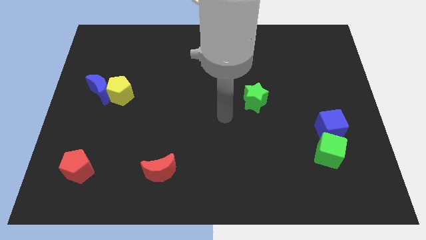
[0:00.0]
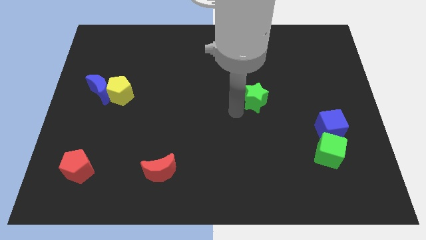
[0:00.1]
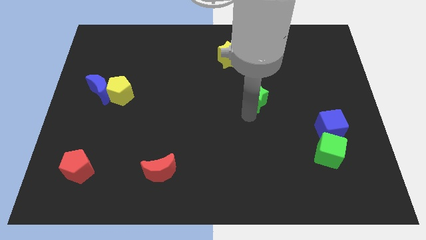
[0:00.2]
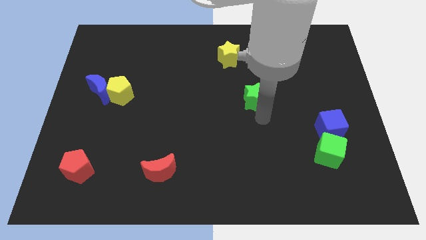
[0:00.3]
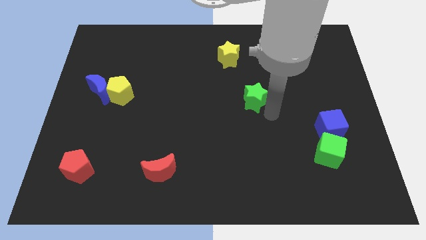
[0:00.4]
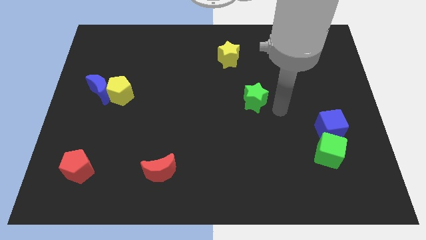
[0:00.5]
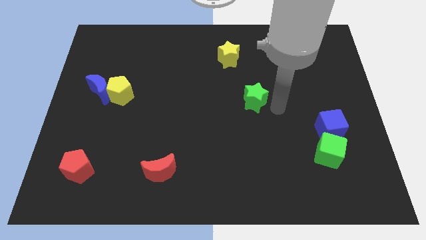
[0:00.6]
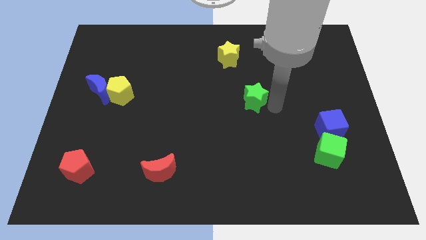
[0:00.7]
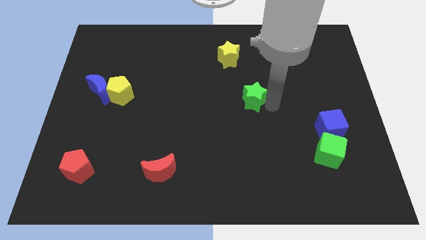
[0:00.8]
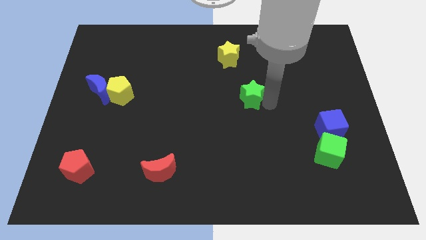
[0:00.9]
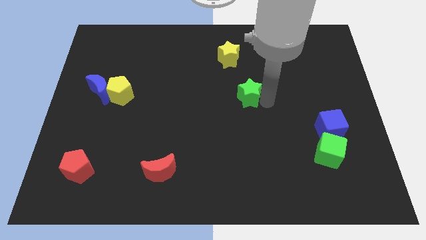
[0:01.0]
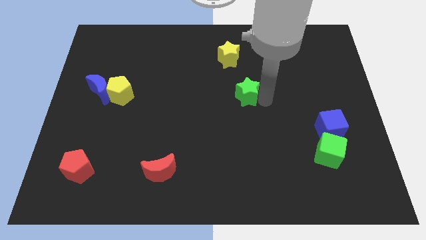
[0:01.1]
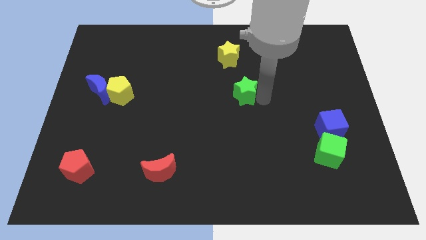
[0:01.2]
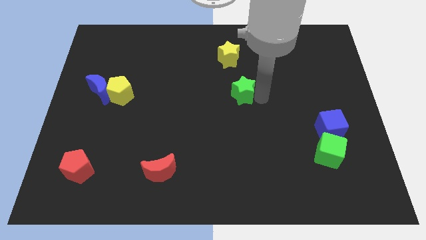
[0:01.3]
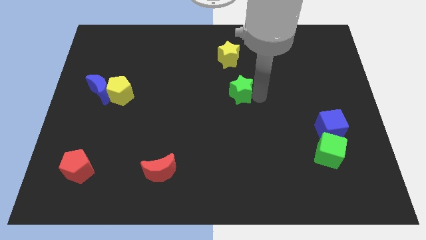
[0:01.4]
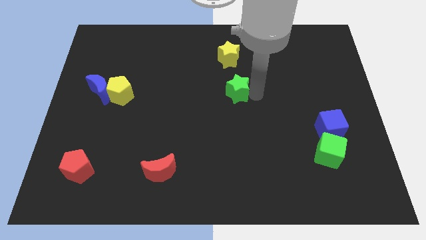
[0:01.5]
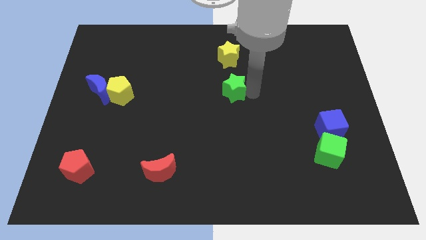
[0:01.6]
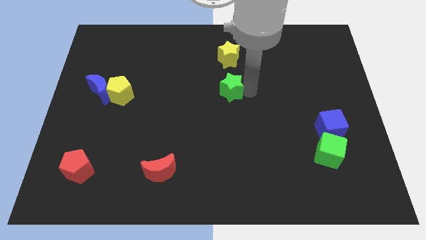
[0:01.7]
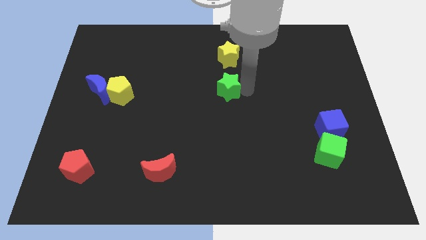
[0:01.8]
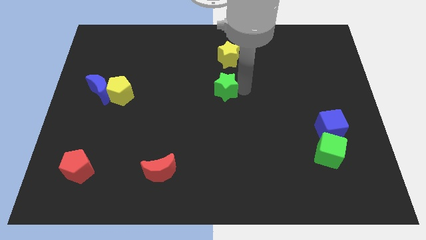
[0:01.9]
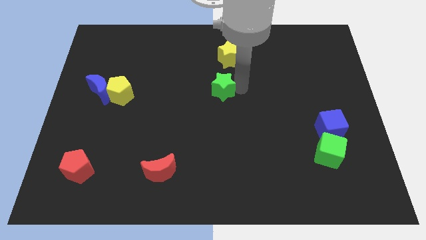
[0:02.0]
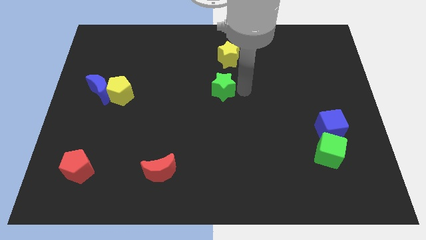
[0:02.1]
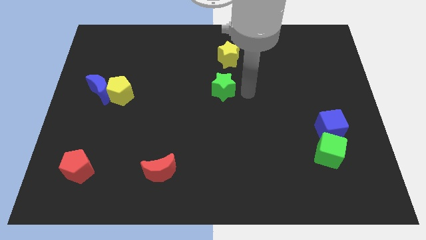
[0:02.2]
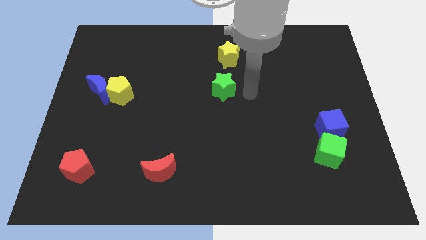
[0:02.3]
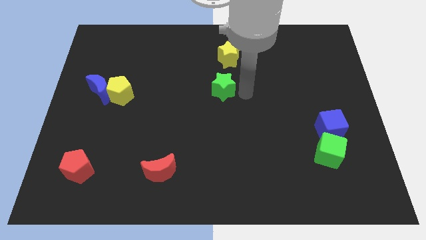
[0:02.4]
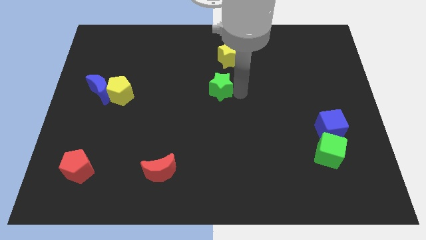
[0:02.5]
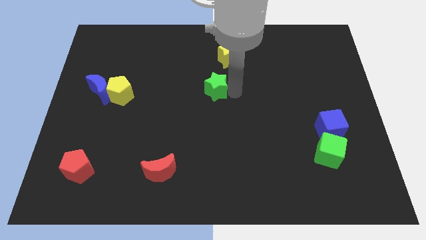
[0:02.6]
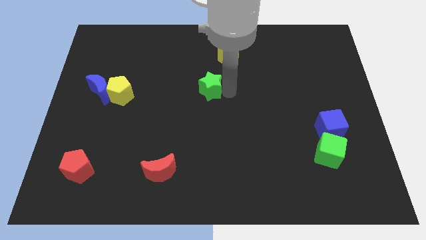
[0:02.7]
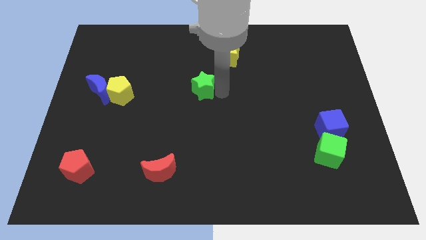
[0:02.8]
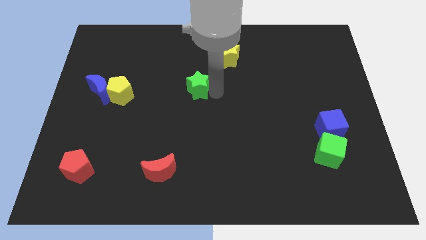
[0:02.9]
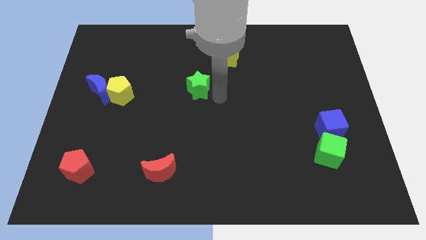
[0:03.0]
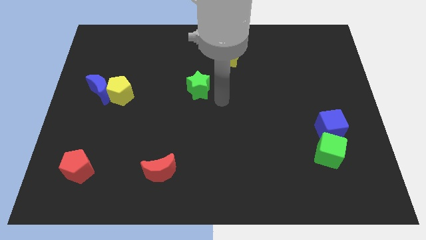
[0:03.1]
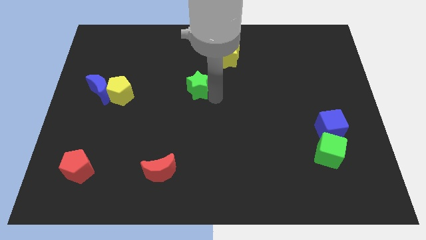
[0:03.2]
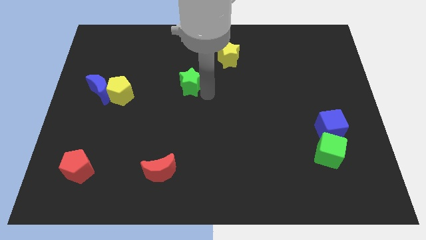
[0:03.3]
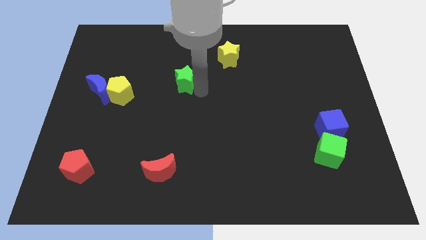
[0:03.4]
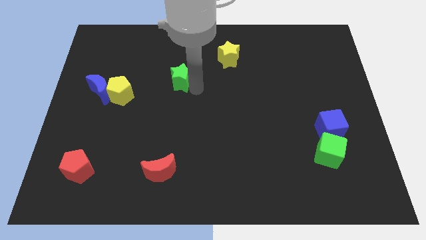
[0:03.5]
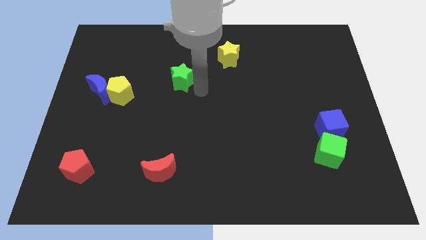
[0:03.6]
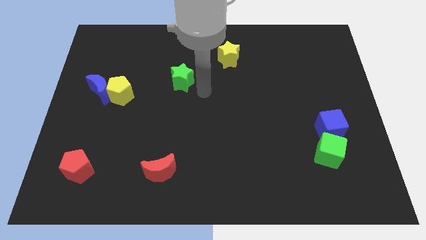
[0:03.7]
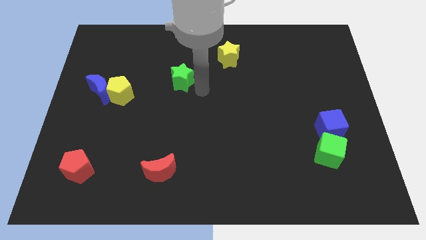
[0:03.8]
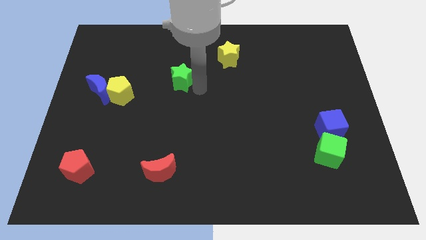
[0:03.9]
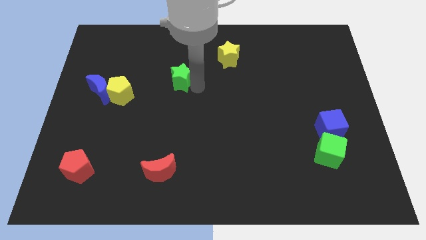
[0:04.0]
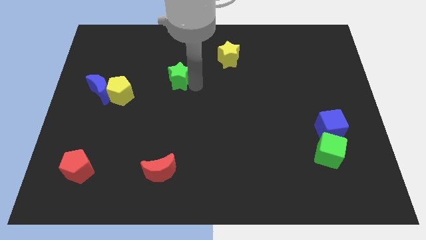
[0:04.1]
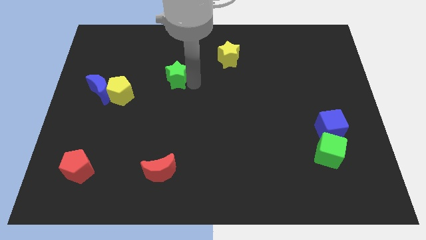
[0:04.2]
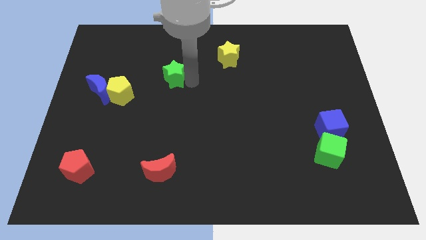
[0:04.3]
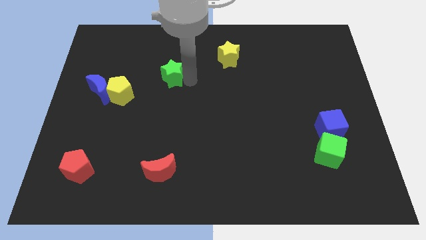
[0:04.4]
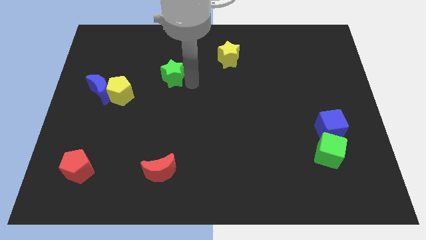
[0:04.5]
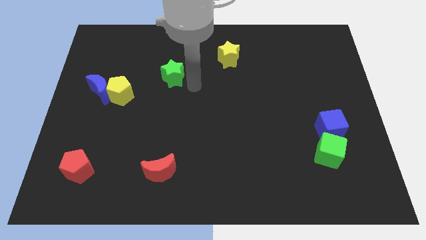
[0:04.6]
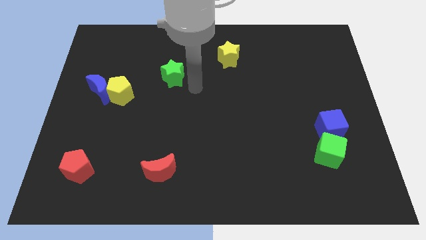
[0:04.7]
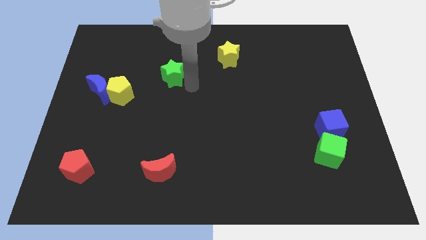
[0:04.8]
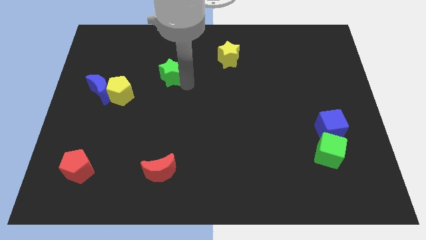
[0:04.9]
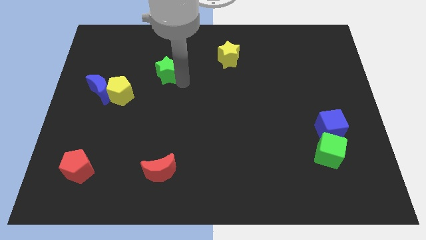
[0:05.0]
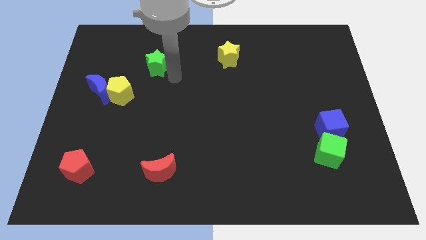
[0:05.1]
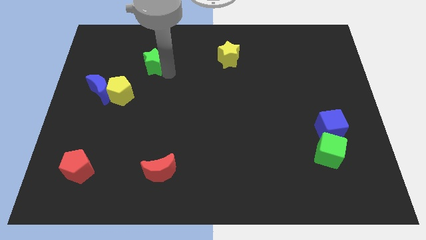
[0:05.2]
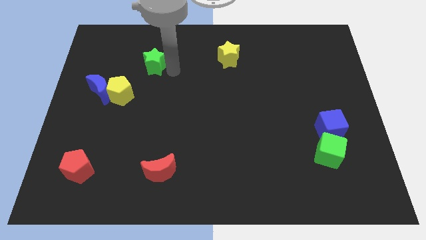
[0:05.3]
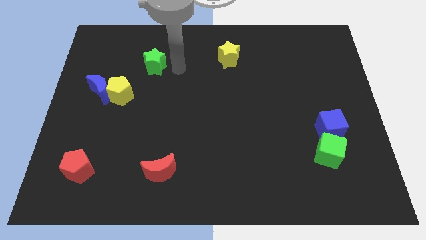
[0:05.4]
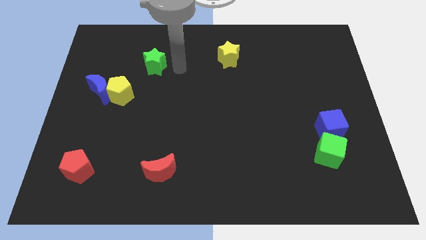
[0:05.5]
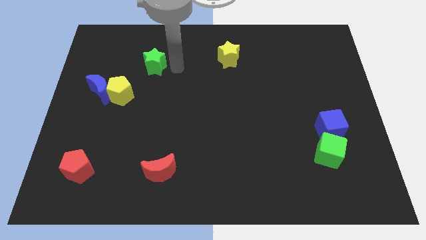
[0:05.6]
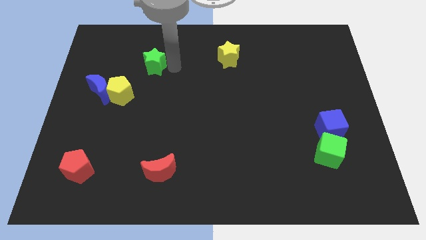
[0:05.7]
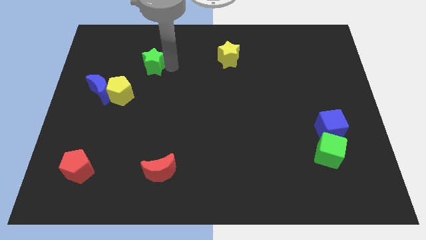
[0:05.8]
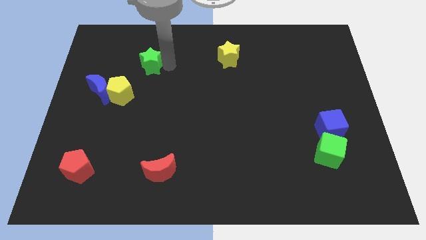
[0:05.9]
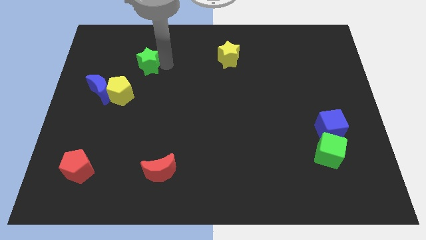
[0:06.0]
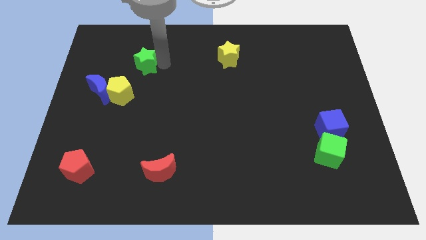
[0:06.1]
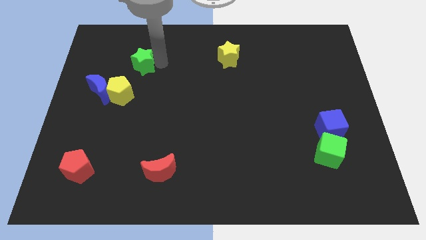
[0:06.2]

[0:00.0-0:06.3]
move the green star to the top of the yellow pentagon

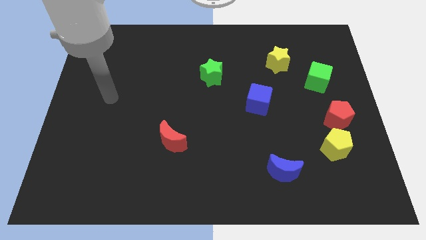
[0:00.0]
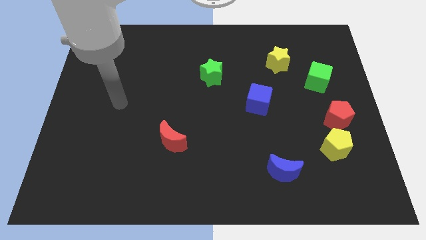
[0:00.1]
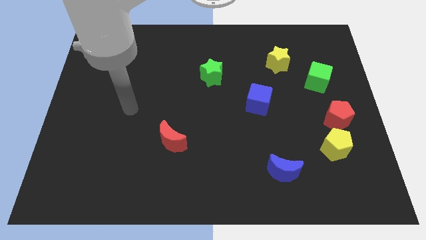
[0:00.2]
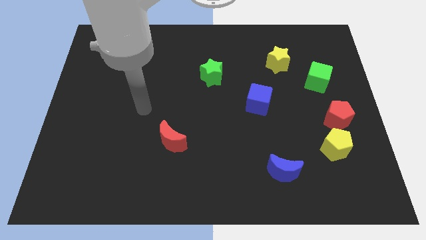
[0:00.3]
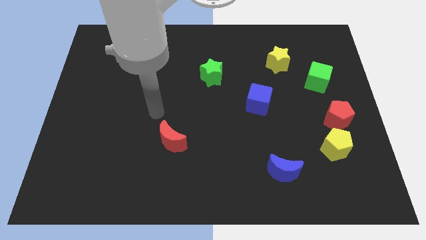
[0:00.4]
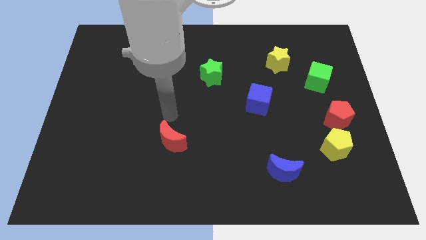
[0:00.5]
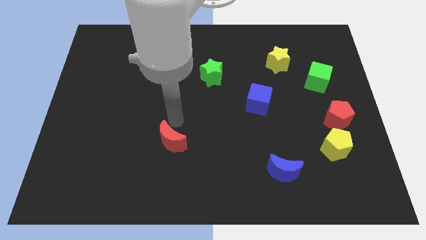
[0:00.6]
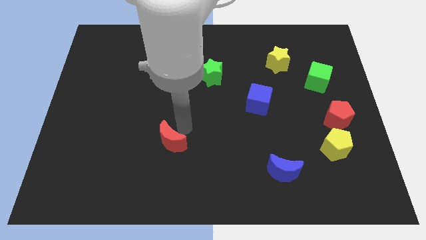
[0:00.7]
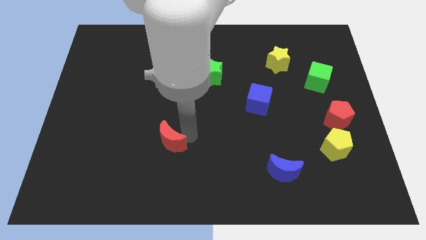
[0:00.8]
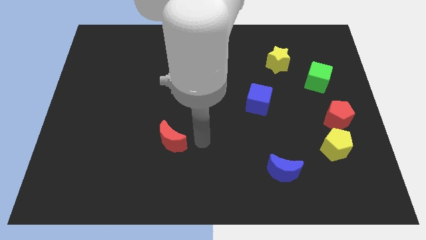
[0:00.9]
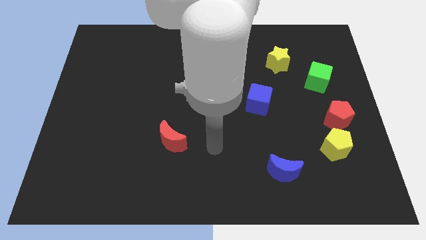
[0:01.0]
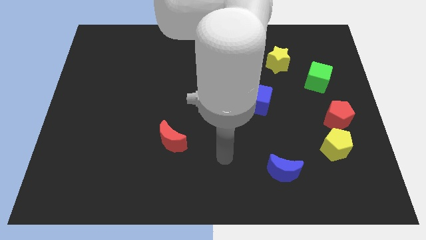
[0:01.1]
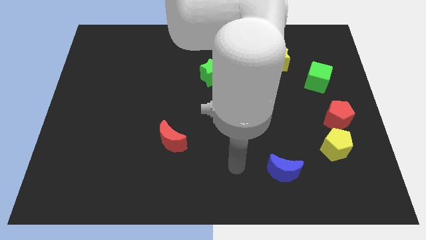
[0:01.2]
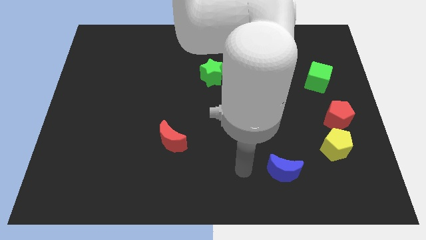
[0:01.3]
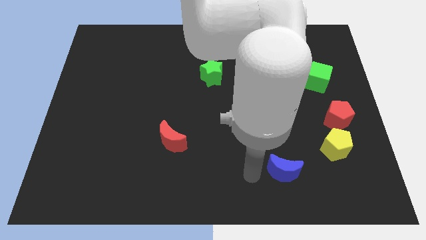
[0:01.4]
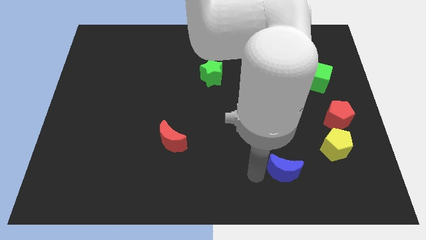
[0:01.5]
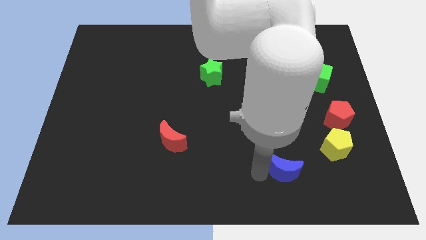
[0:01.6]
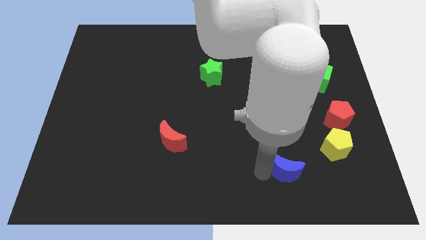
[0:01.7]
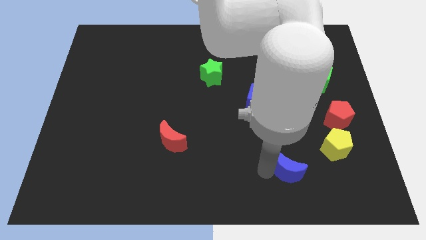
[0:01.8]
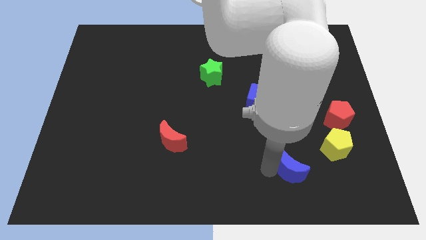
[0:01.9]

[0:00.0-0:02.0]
move the blue moon to the bottom left side of the yellow pentagon
